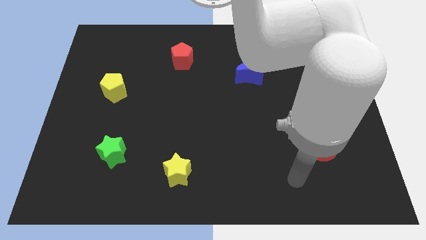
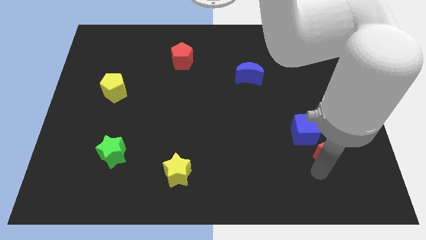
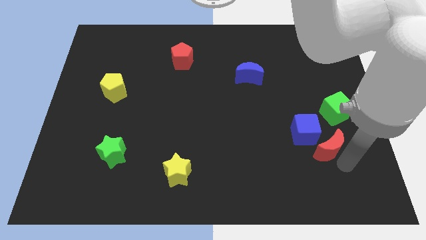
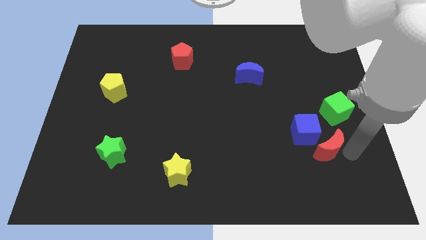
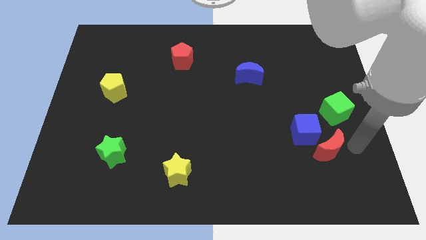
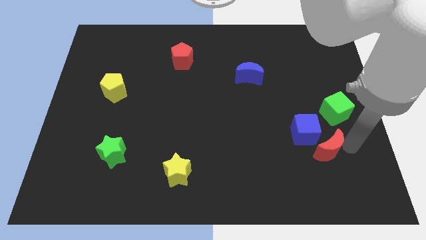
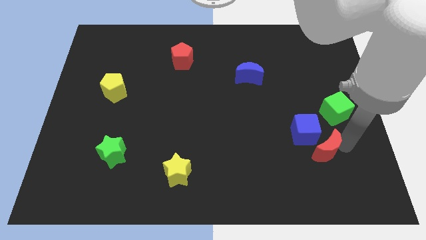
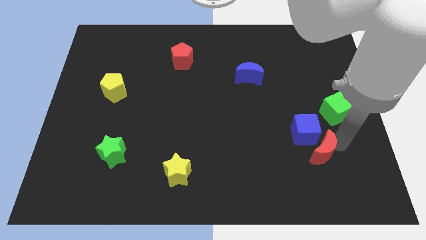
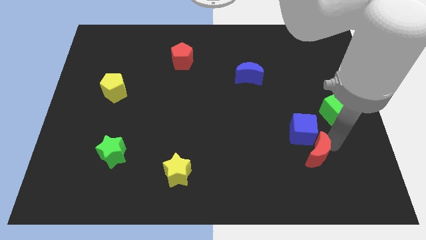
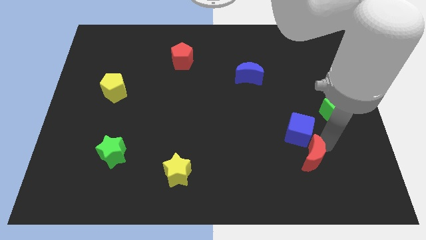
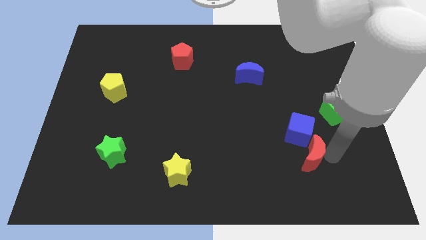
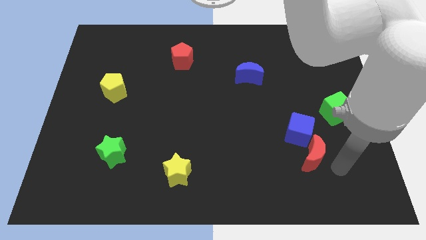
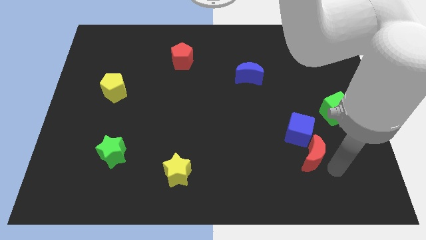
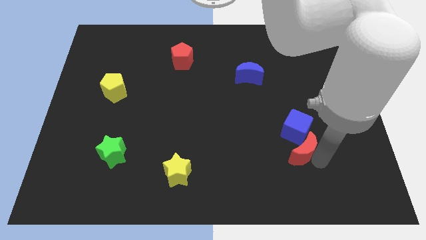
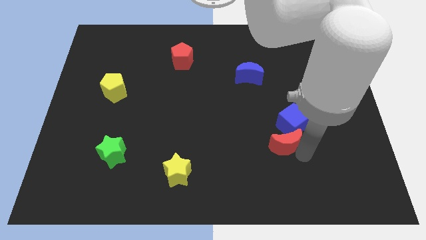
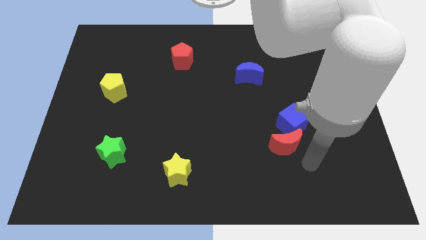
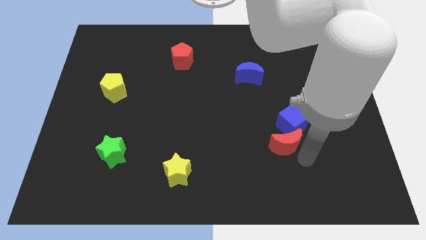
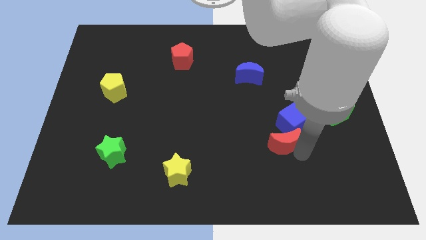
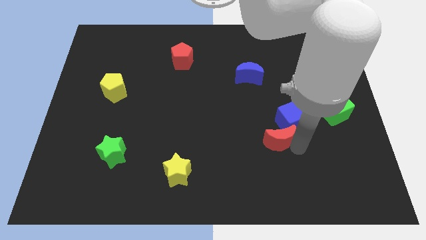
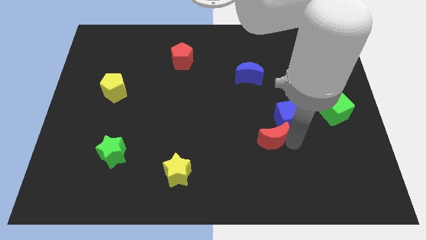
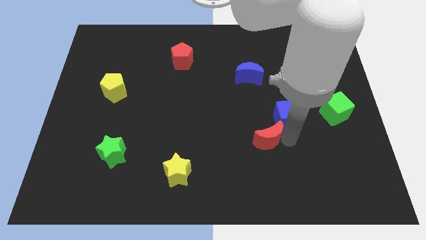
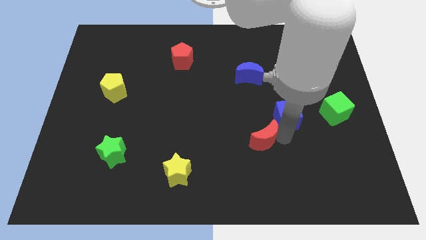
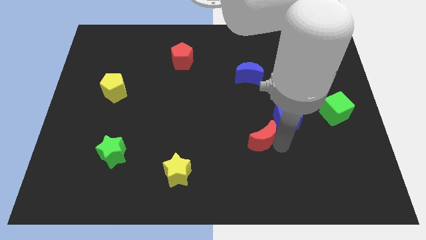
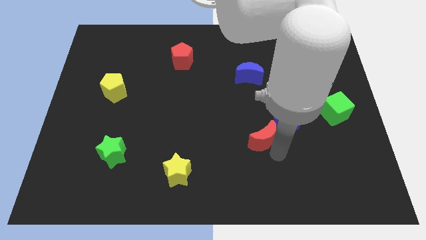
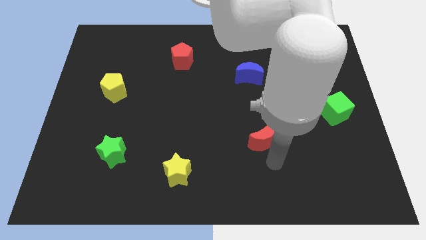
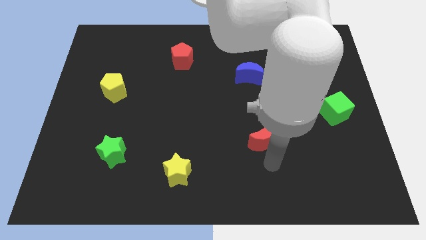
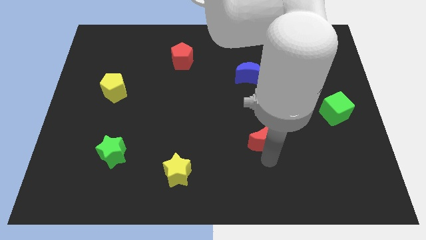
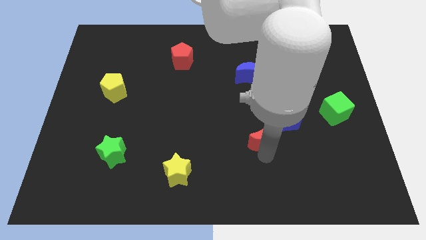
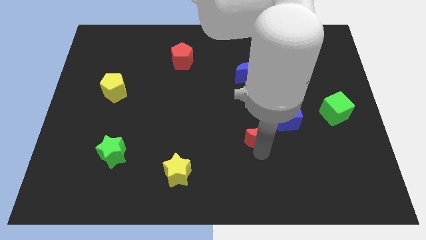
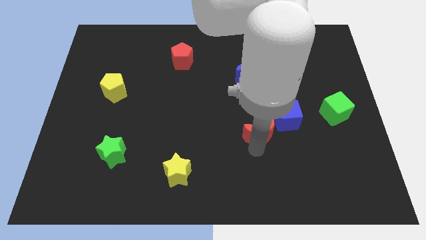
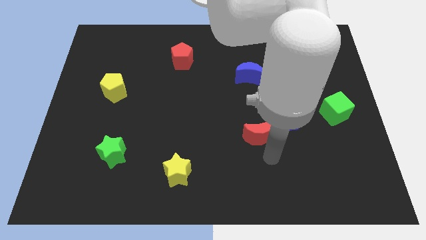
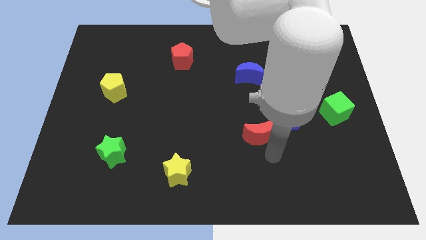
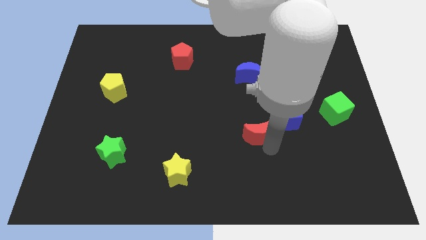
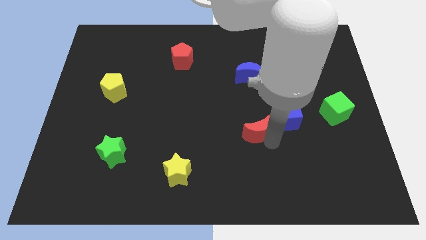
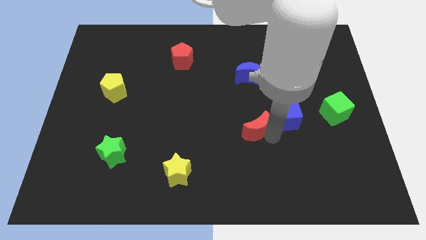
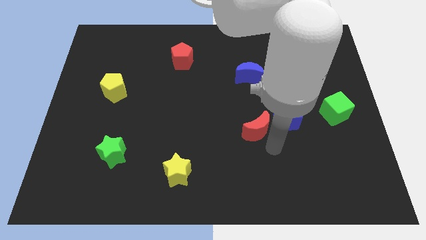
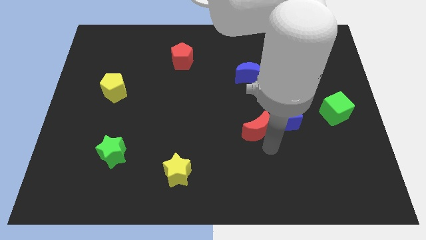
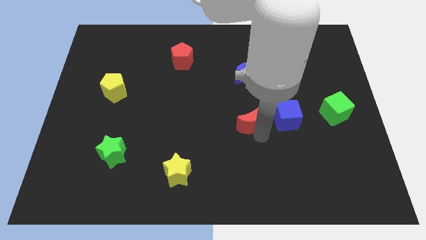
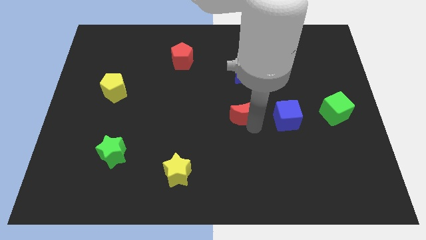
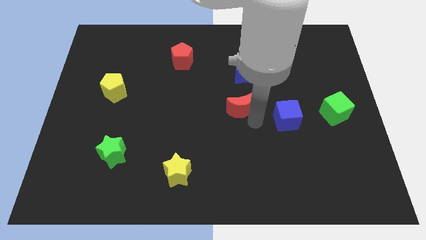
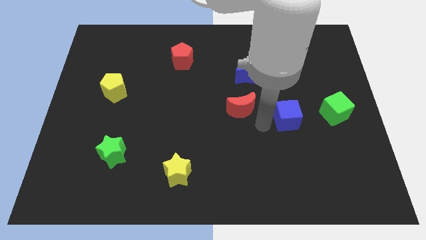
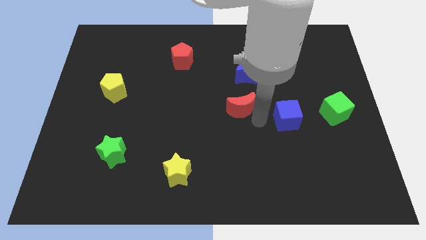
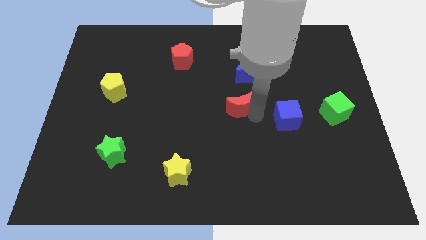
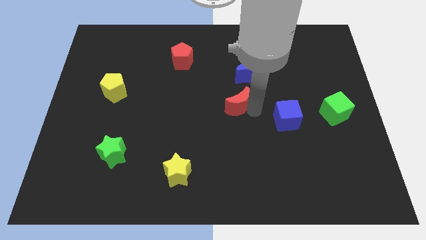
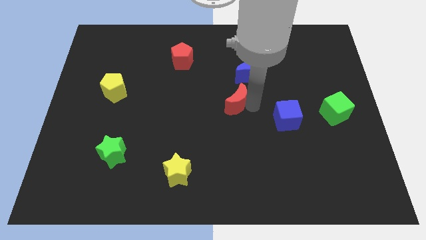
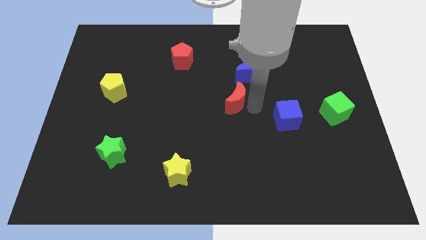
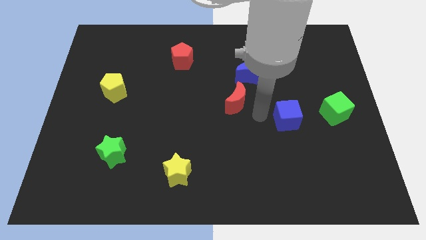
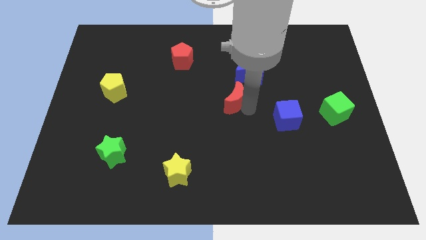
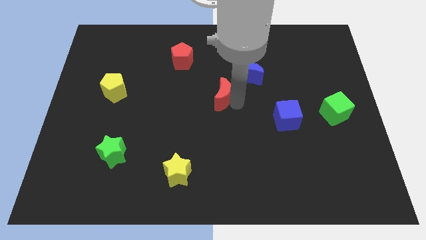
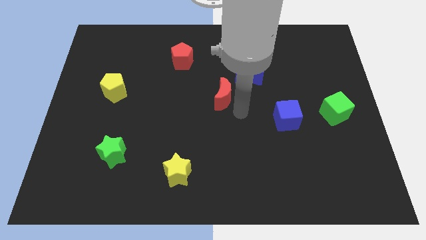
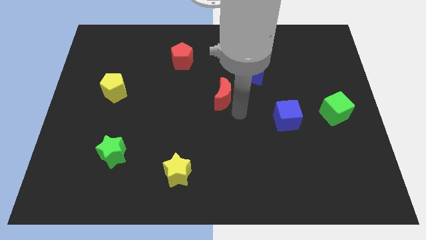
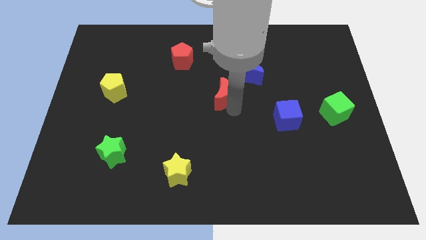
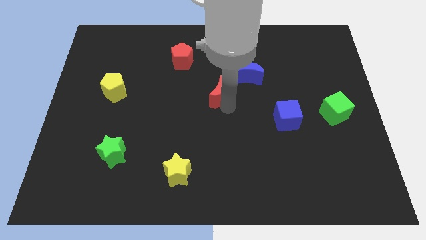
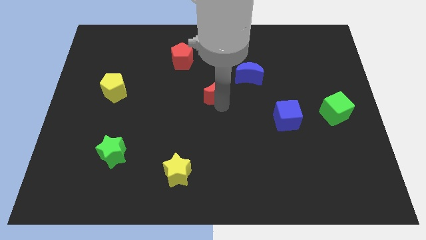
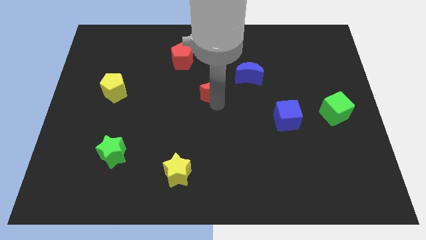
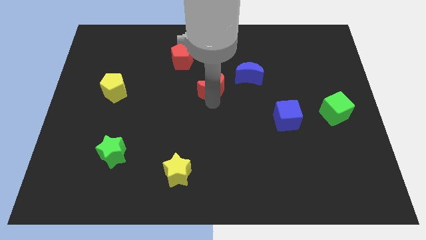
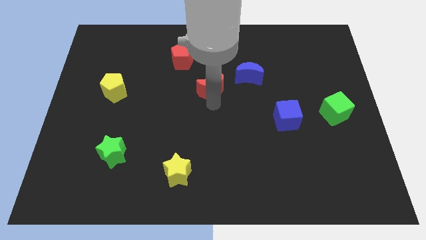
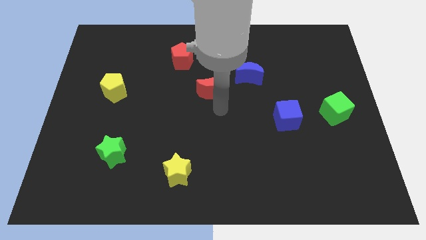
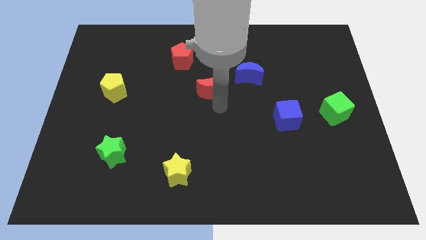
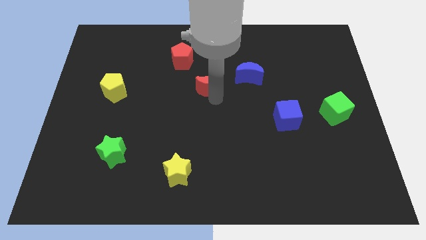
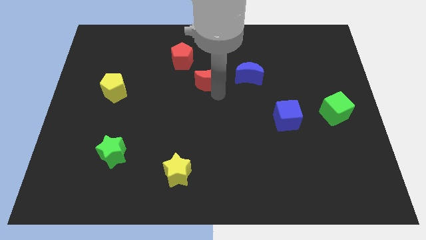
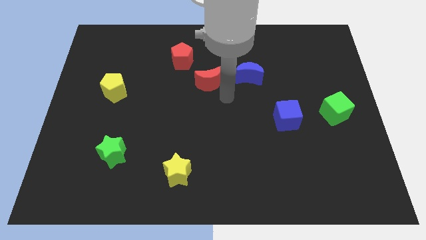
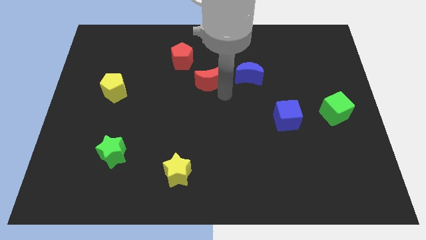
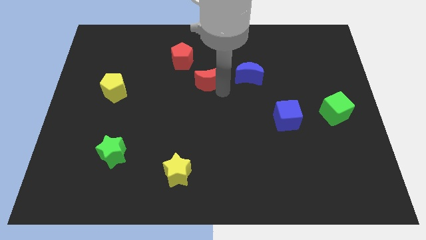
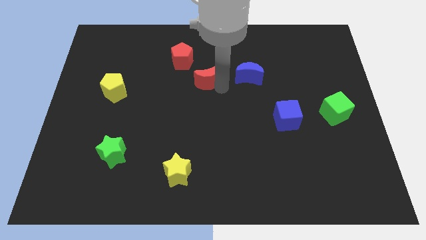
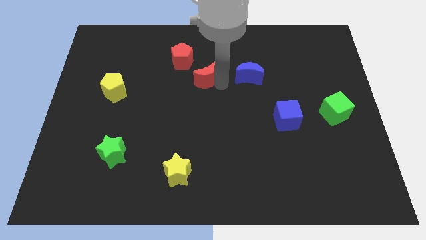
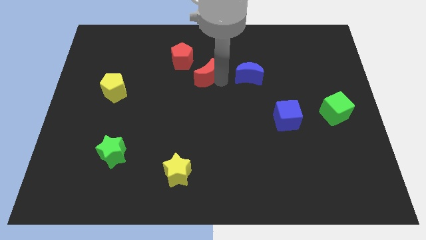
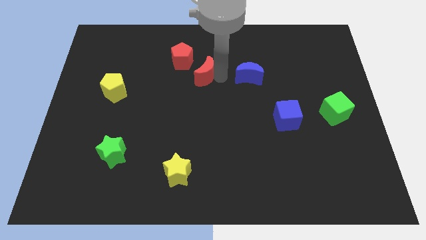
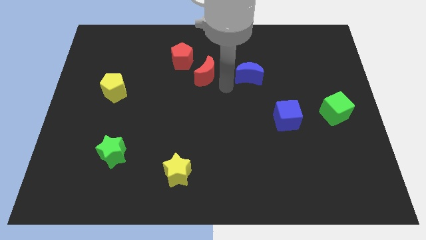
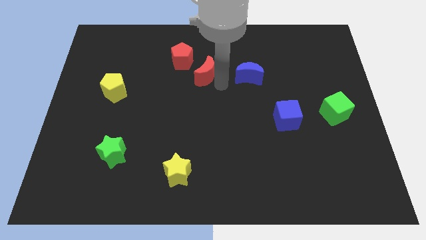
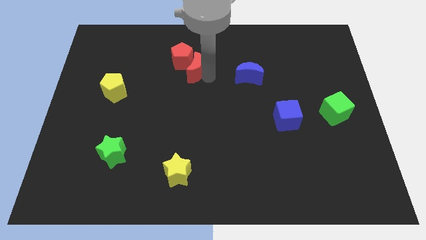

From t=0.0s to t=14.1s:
push the red moon close to the red pentagon
